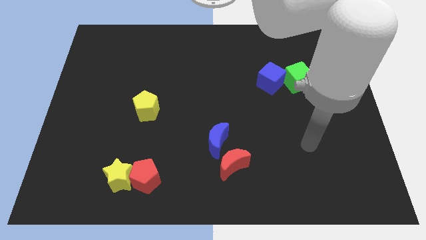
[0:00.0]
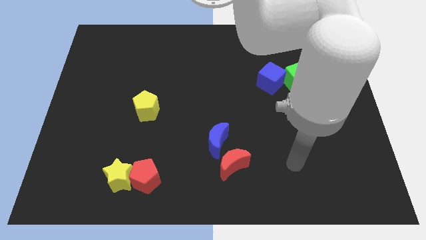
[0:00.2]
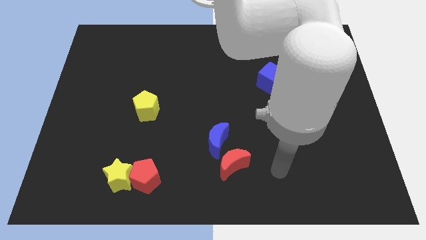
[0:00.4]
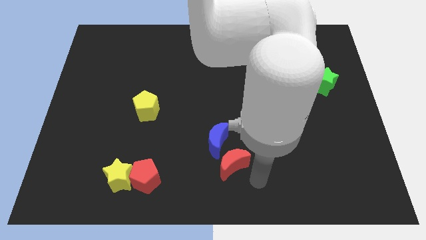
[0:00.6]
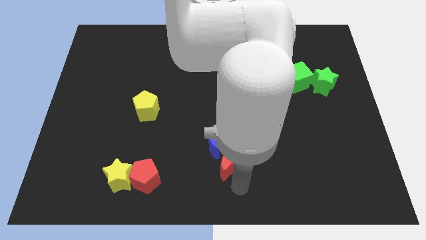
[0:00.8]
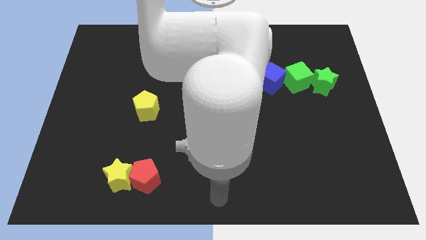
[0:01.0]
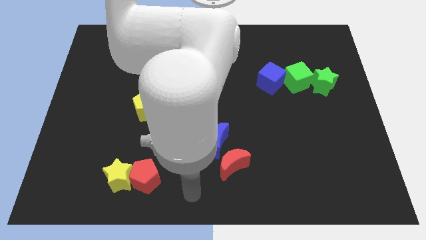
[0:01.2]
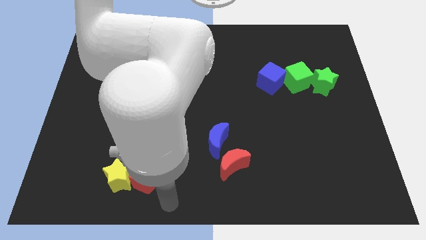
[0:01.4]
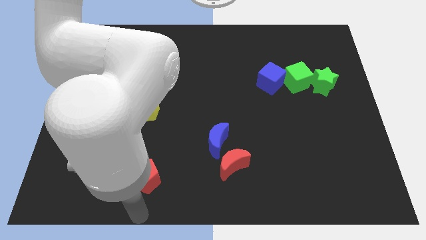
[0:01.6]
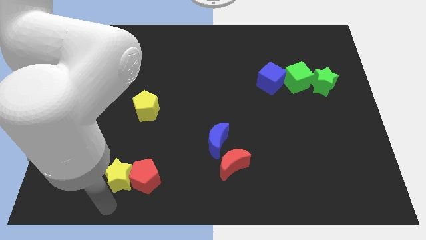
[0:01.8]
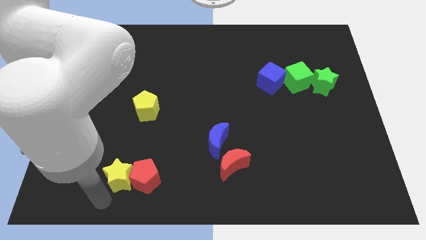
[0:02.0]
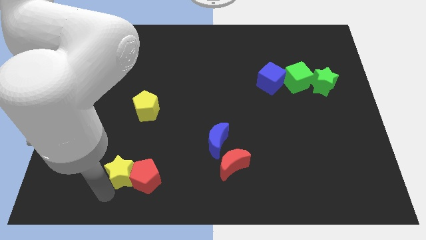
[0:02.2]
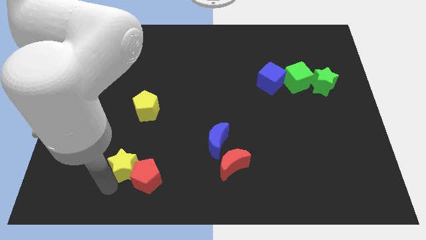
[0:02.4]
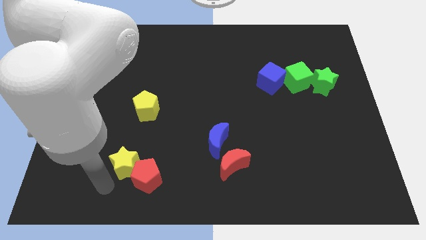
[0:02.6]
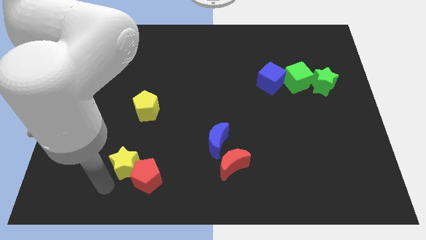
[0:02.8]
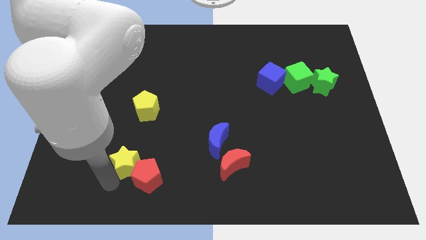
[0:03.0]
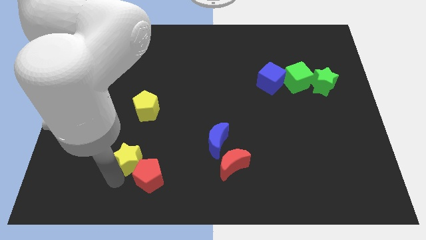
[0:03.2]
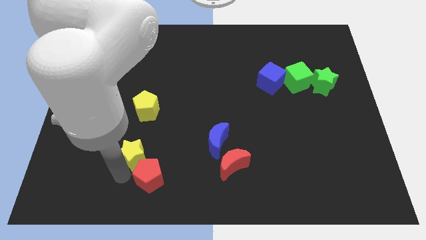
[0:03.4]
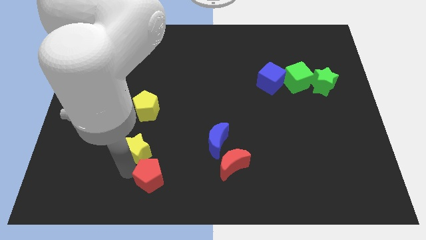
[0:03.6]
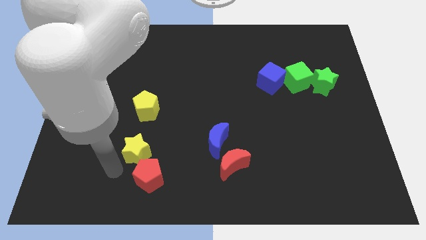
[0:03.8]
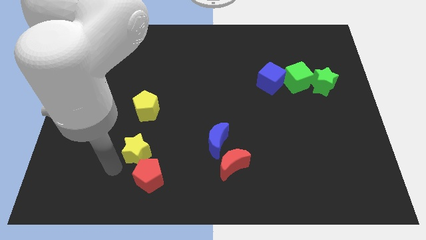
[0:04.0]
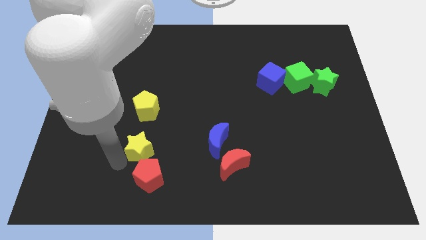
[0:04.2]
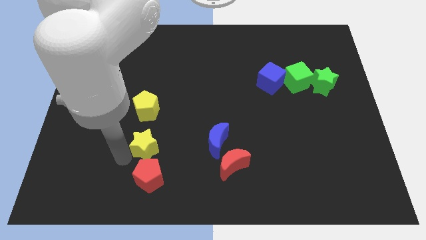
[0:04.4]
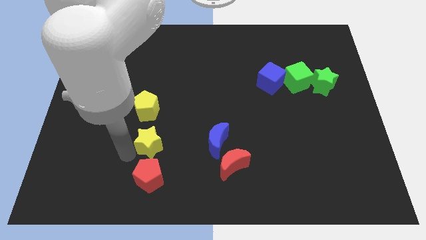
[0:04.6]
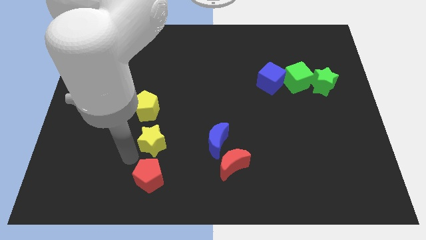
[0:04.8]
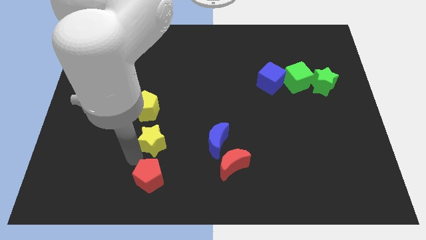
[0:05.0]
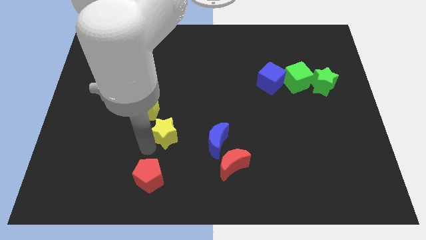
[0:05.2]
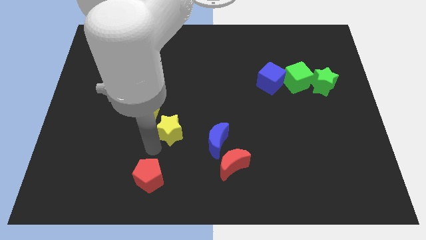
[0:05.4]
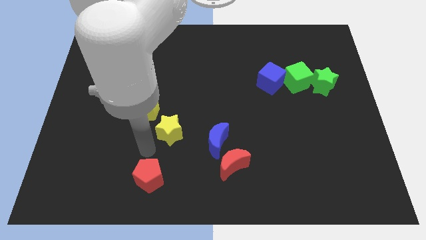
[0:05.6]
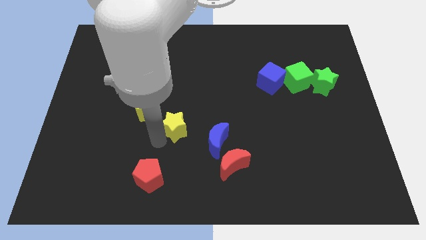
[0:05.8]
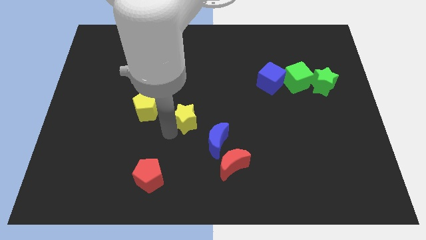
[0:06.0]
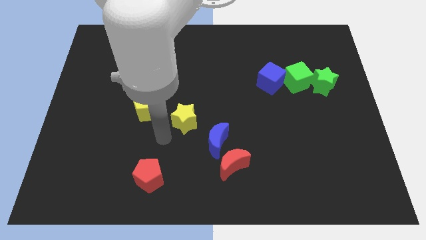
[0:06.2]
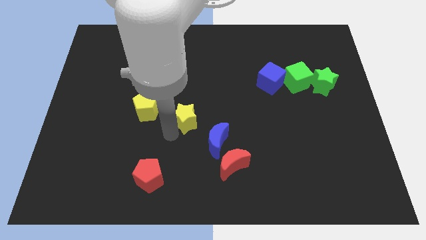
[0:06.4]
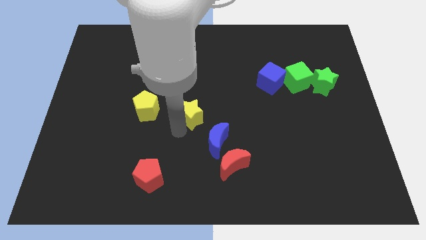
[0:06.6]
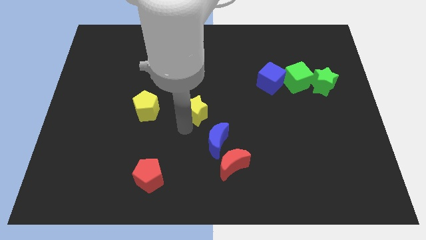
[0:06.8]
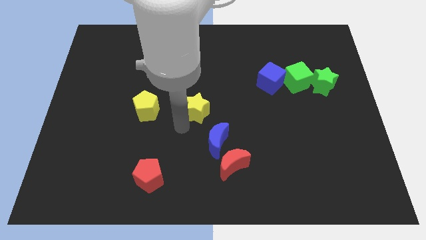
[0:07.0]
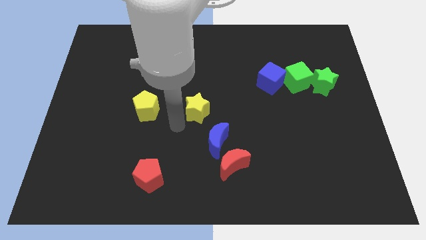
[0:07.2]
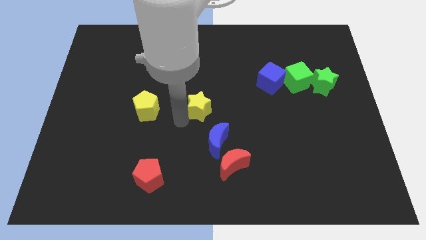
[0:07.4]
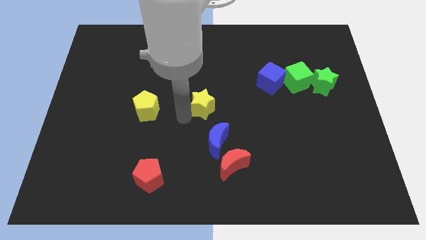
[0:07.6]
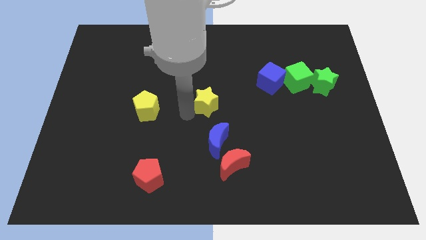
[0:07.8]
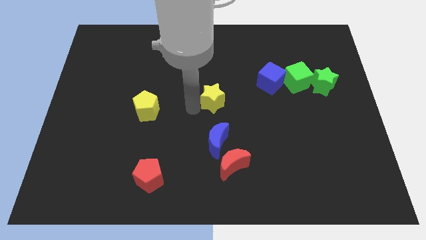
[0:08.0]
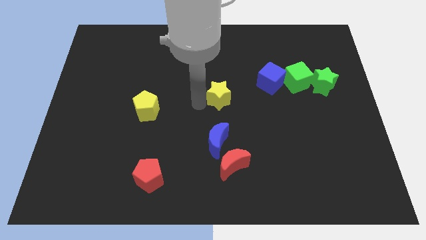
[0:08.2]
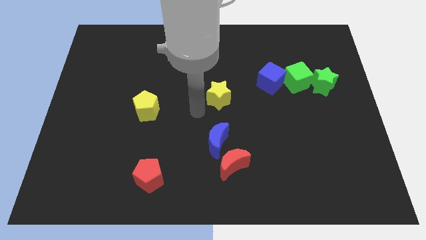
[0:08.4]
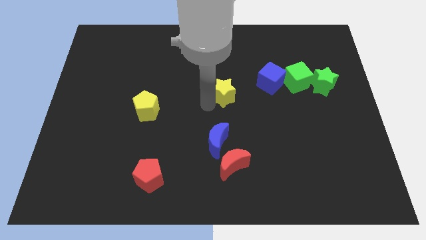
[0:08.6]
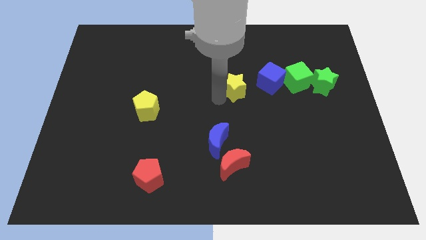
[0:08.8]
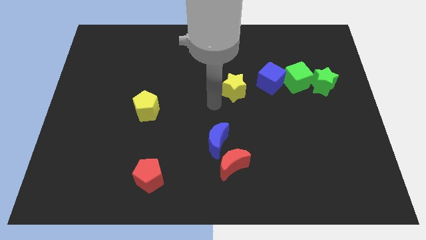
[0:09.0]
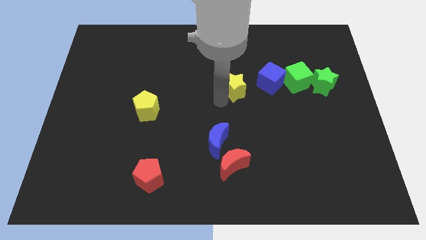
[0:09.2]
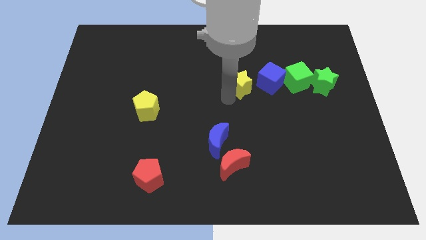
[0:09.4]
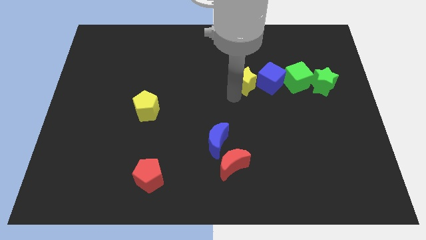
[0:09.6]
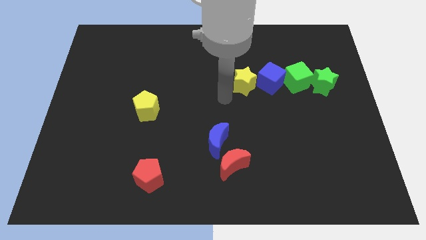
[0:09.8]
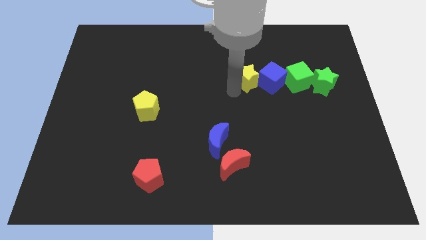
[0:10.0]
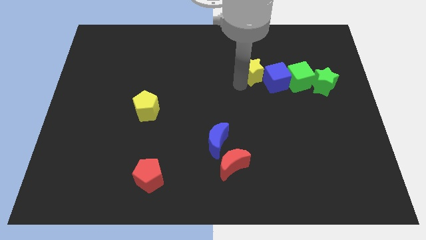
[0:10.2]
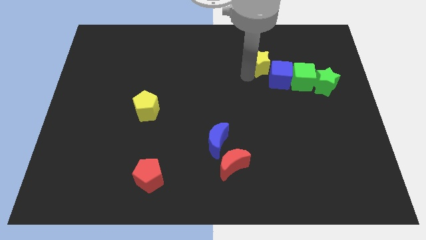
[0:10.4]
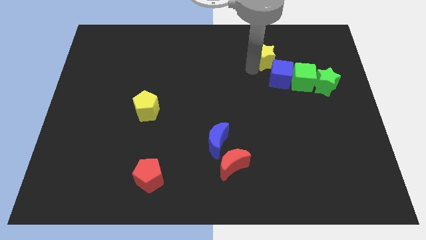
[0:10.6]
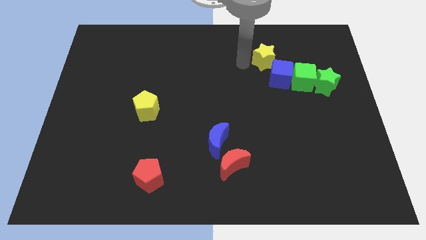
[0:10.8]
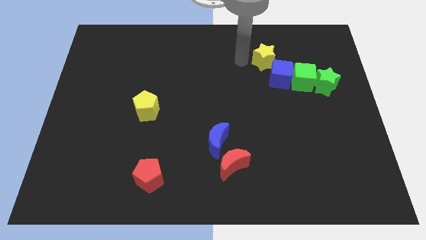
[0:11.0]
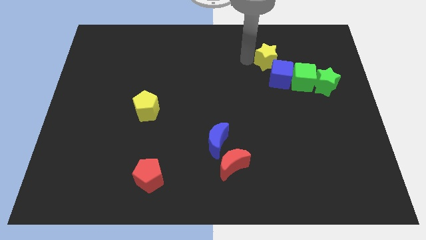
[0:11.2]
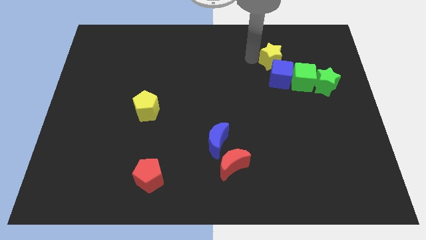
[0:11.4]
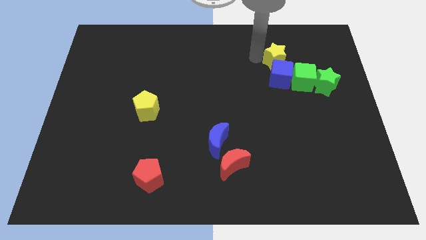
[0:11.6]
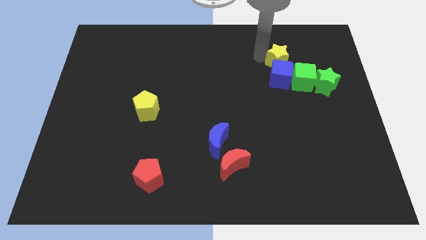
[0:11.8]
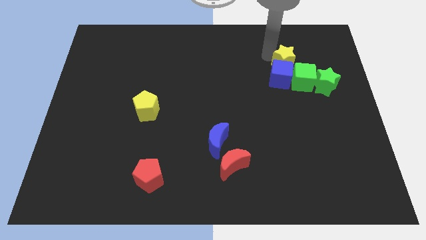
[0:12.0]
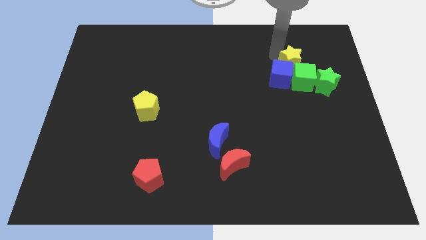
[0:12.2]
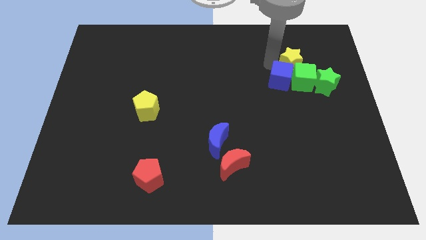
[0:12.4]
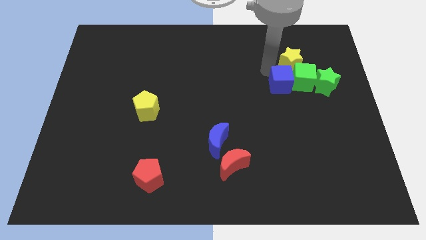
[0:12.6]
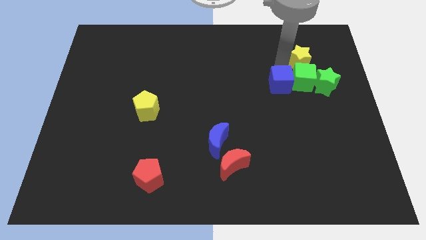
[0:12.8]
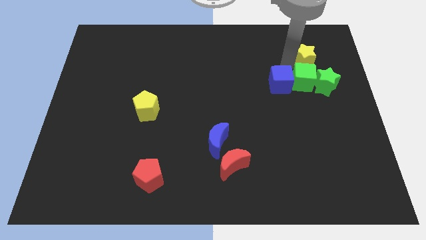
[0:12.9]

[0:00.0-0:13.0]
move the yellow star to the top of the green star

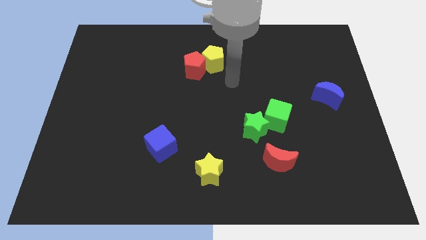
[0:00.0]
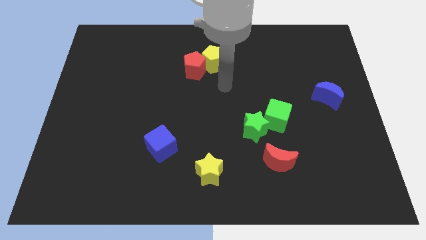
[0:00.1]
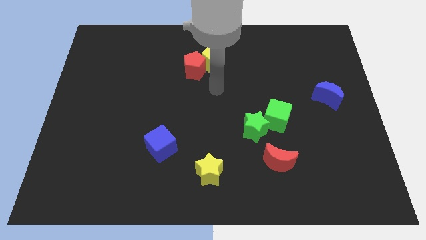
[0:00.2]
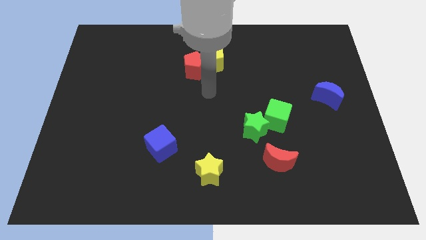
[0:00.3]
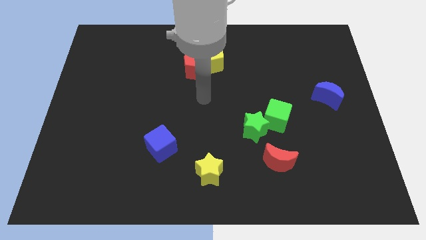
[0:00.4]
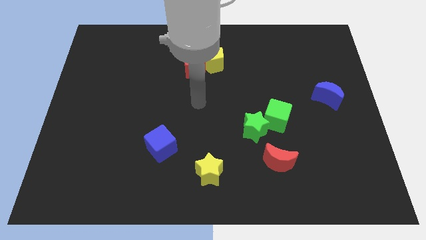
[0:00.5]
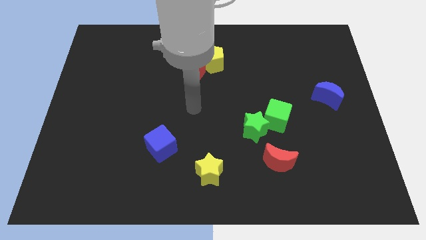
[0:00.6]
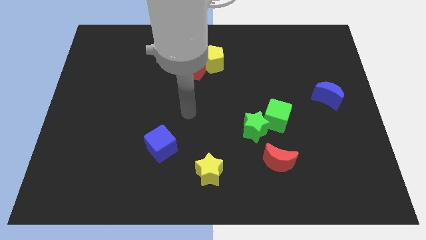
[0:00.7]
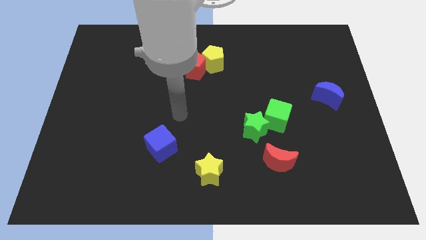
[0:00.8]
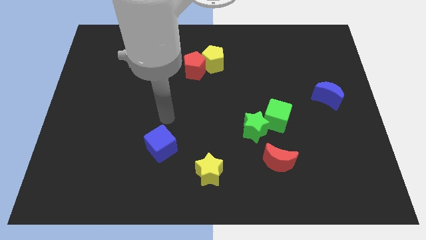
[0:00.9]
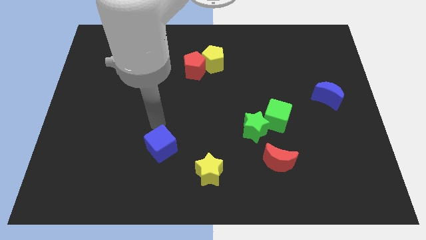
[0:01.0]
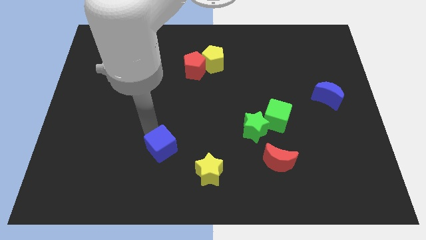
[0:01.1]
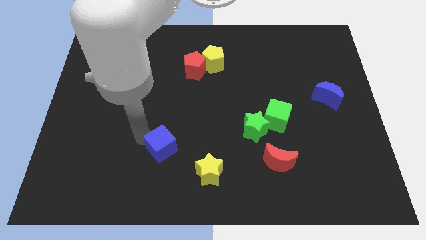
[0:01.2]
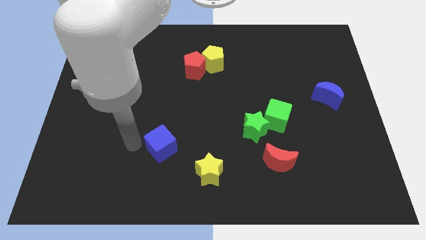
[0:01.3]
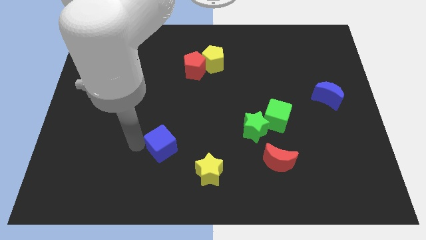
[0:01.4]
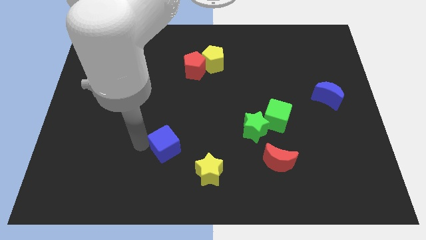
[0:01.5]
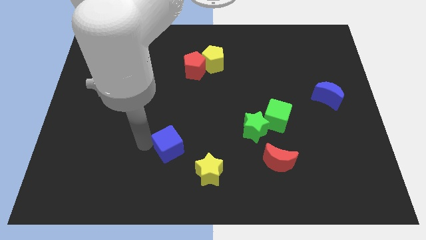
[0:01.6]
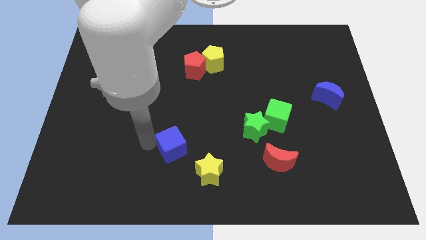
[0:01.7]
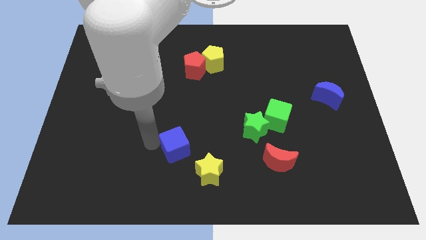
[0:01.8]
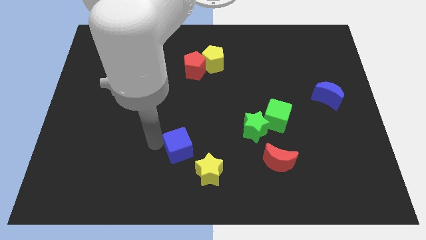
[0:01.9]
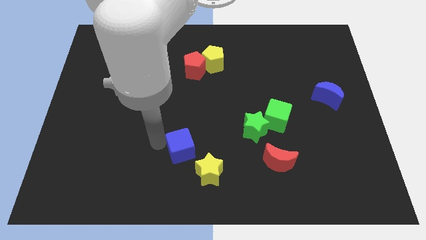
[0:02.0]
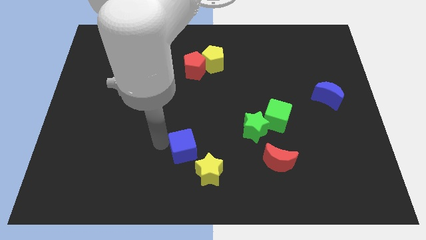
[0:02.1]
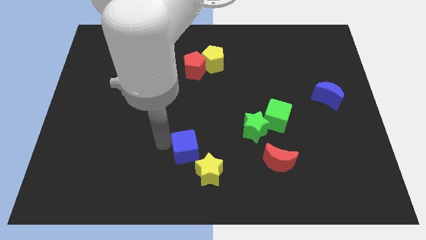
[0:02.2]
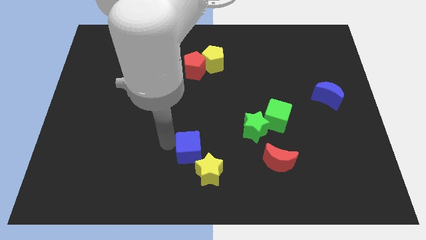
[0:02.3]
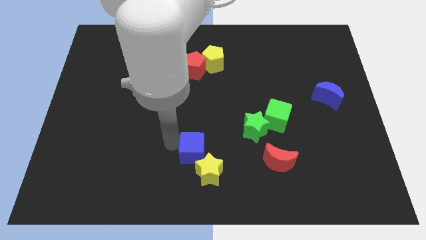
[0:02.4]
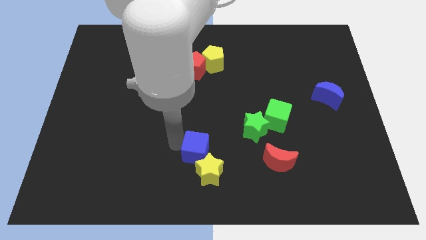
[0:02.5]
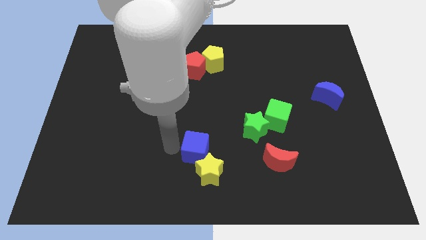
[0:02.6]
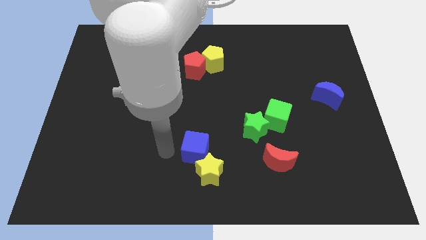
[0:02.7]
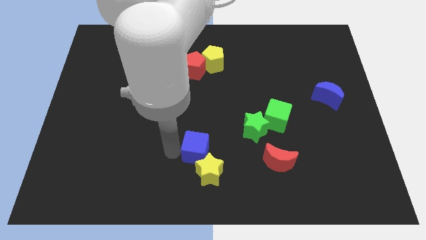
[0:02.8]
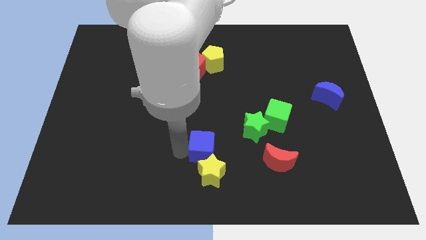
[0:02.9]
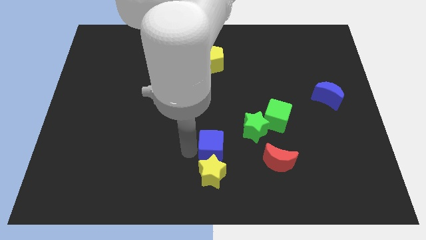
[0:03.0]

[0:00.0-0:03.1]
slide the blue cube diagonally down and to the left of the green star
